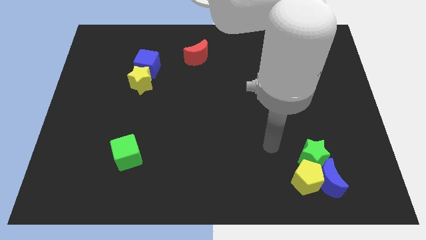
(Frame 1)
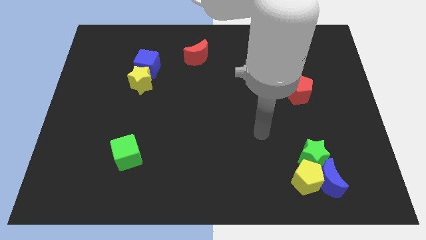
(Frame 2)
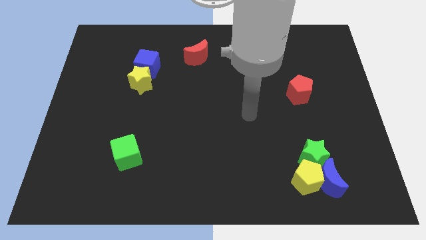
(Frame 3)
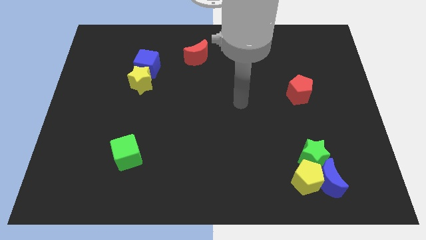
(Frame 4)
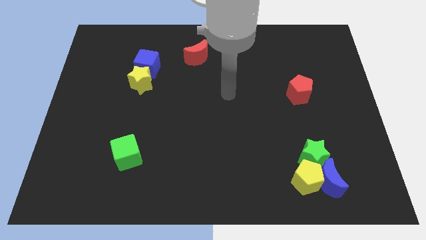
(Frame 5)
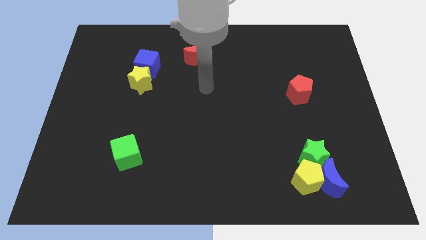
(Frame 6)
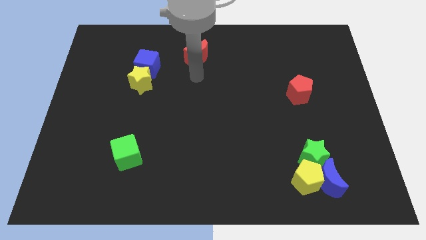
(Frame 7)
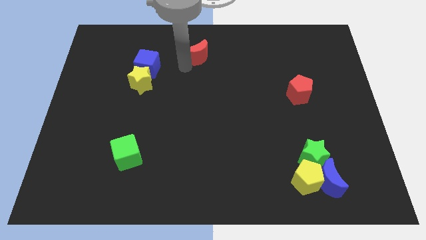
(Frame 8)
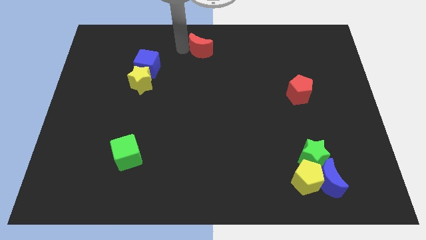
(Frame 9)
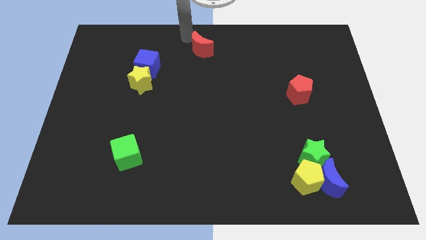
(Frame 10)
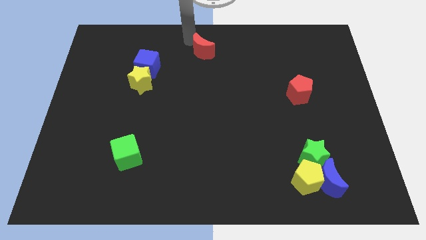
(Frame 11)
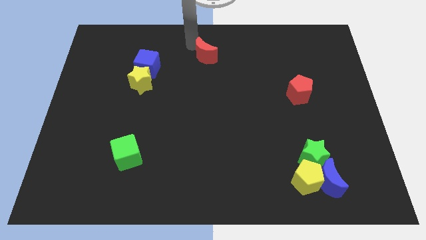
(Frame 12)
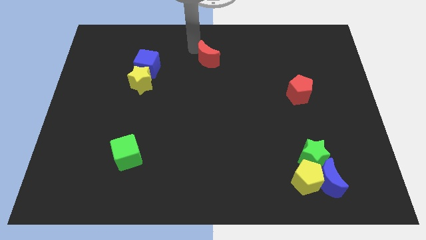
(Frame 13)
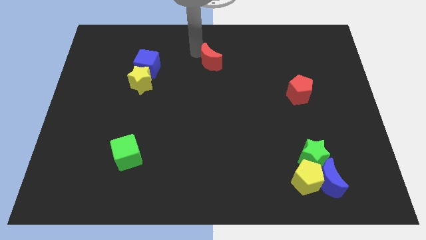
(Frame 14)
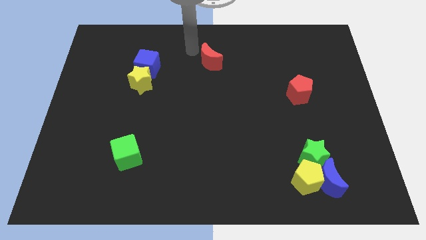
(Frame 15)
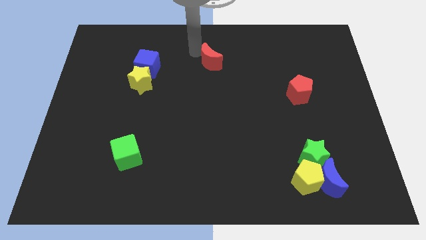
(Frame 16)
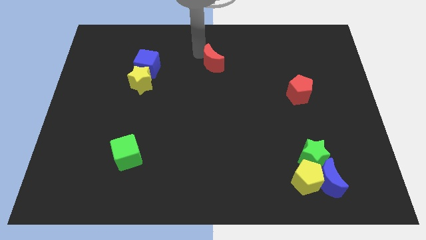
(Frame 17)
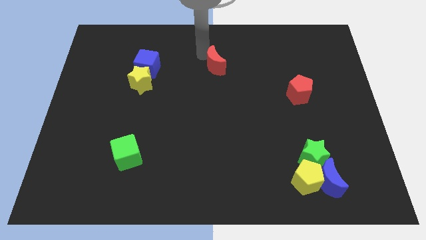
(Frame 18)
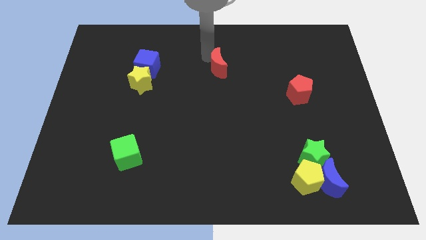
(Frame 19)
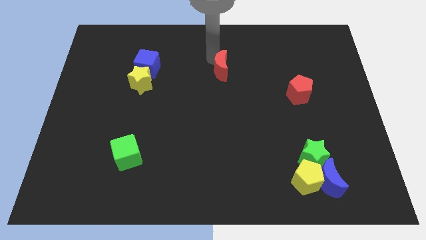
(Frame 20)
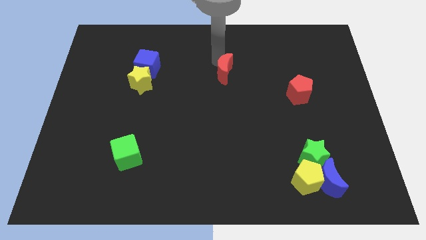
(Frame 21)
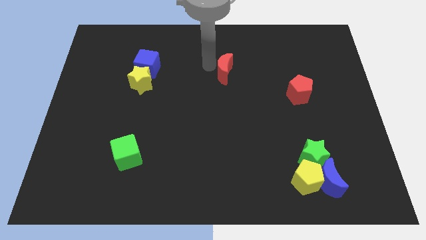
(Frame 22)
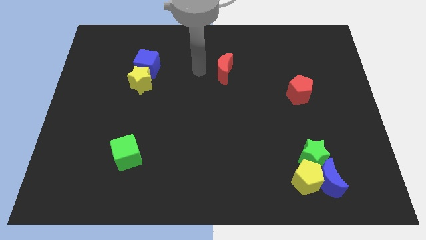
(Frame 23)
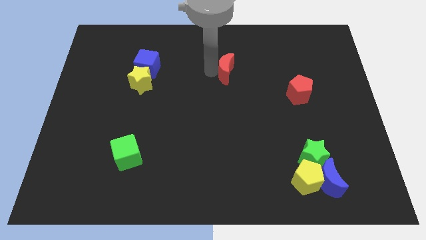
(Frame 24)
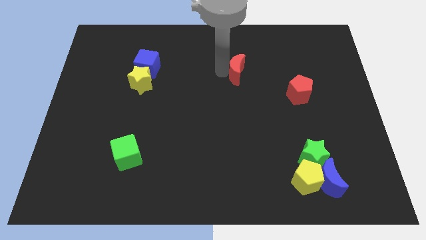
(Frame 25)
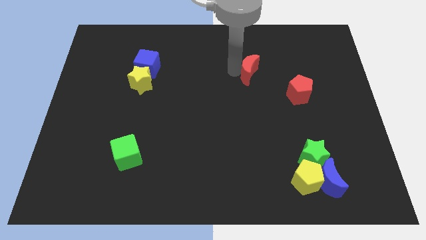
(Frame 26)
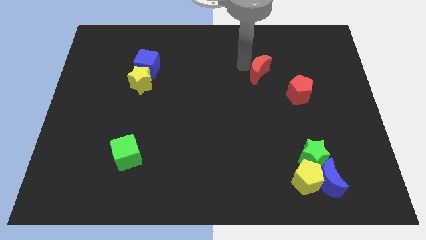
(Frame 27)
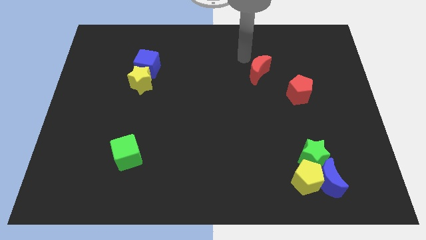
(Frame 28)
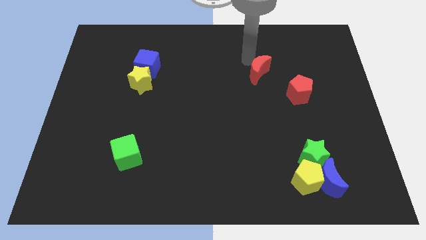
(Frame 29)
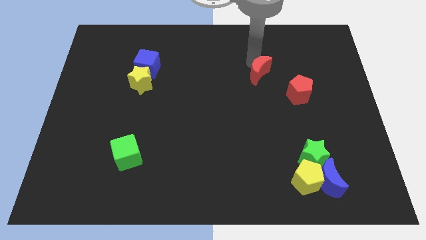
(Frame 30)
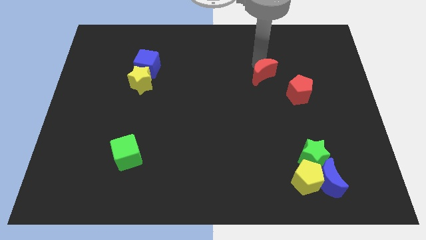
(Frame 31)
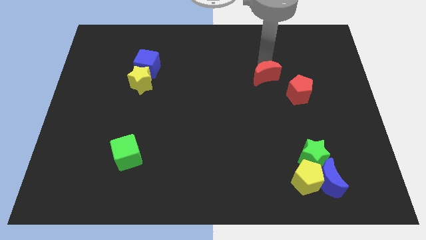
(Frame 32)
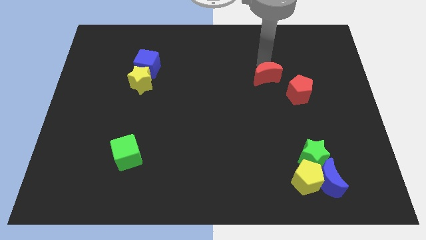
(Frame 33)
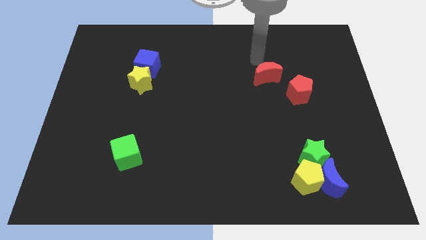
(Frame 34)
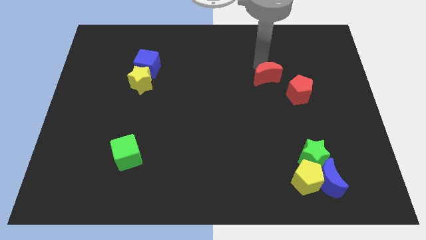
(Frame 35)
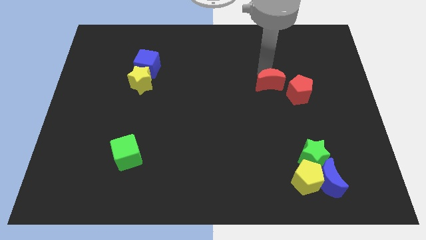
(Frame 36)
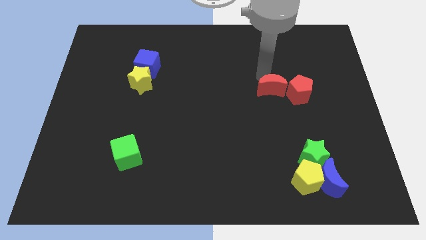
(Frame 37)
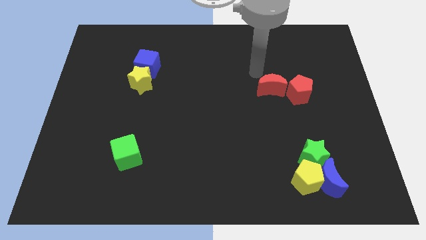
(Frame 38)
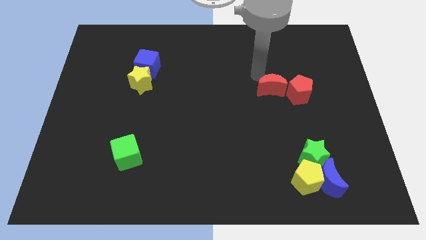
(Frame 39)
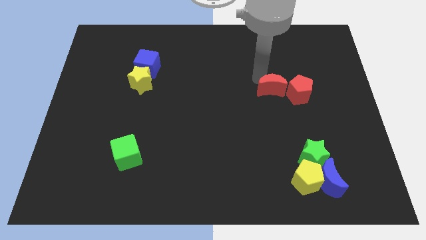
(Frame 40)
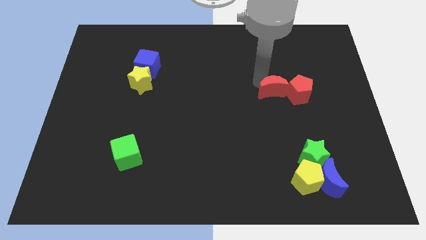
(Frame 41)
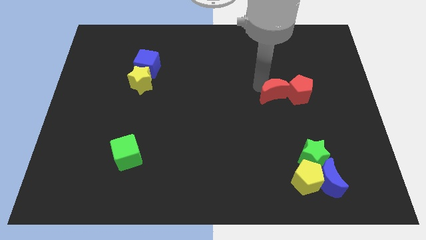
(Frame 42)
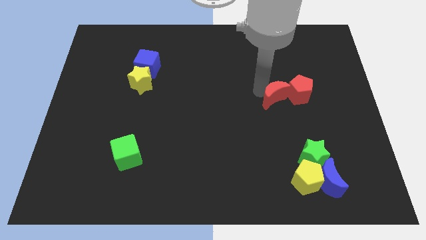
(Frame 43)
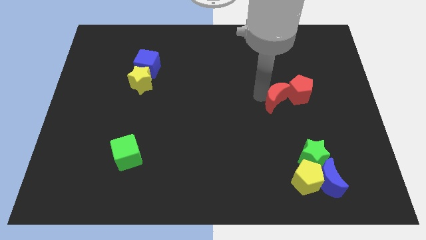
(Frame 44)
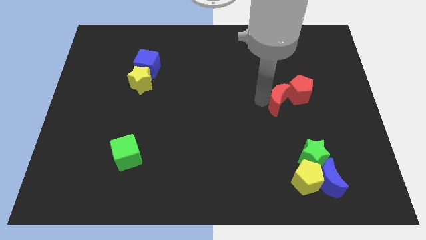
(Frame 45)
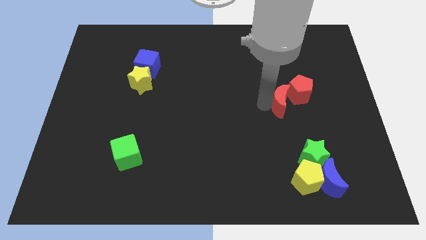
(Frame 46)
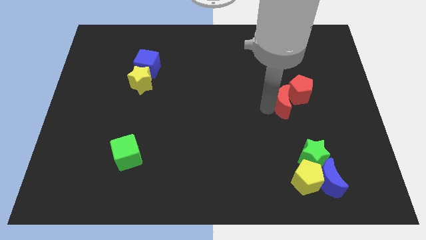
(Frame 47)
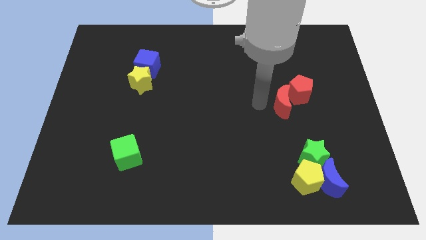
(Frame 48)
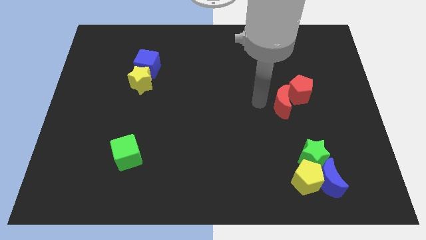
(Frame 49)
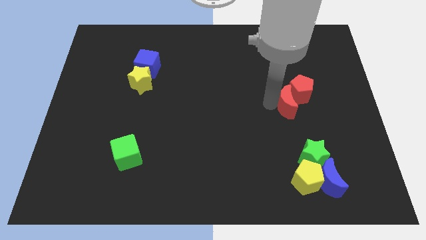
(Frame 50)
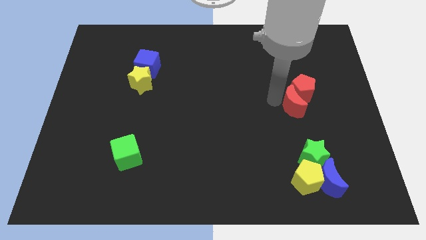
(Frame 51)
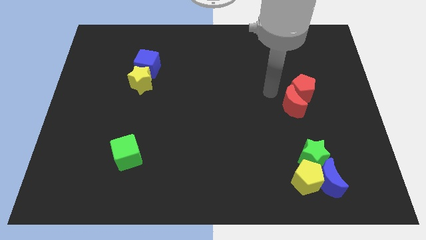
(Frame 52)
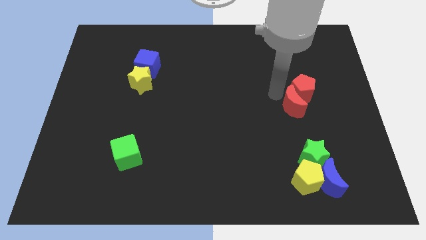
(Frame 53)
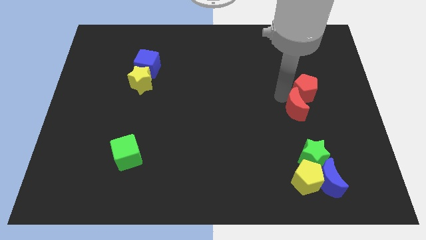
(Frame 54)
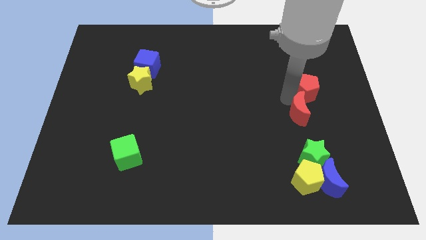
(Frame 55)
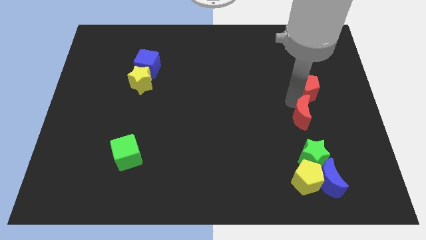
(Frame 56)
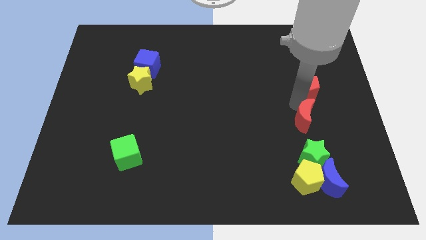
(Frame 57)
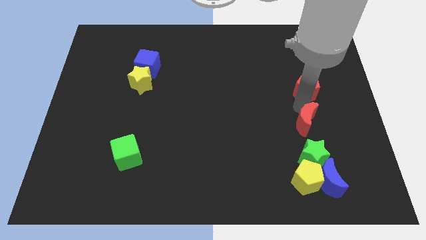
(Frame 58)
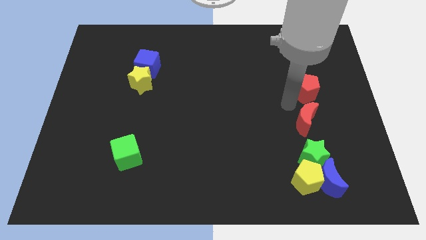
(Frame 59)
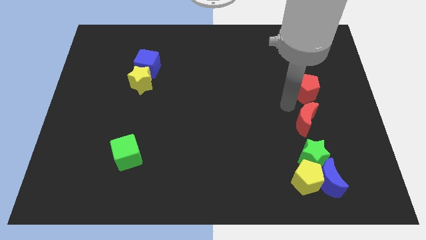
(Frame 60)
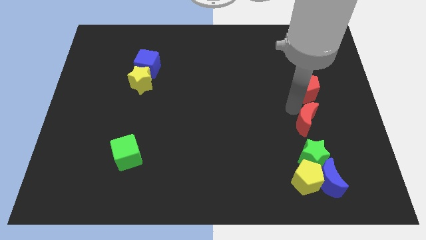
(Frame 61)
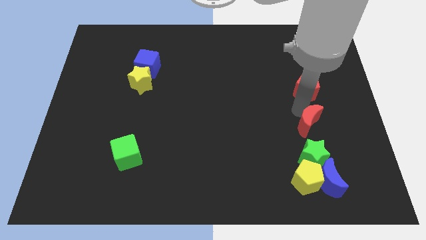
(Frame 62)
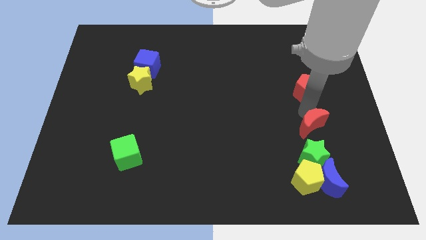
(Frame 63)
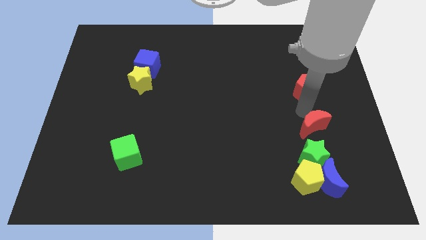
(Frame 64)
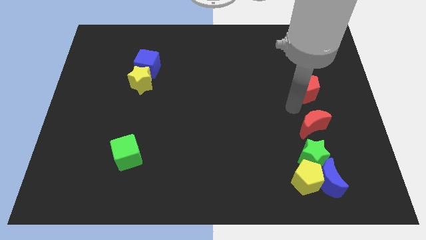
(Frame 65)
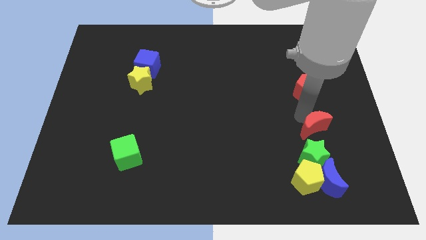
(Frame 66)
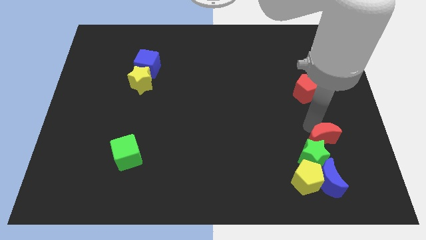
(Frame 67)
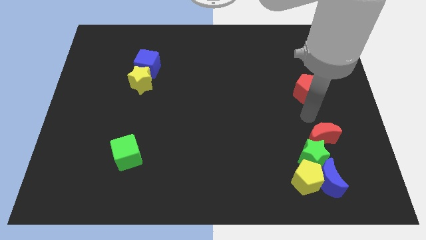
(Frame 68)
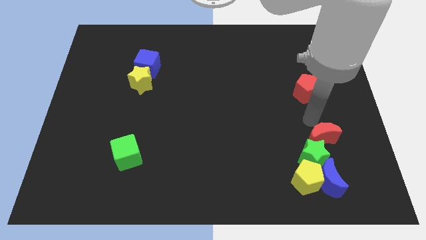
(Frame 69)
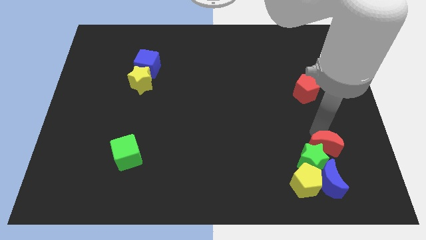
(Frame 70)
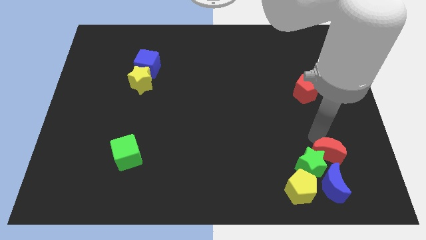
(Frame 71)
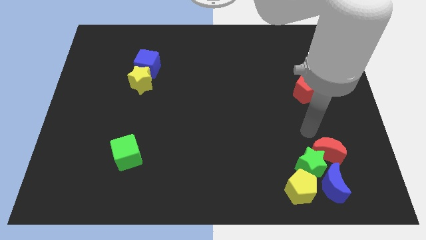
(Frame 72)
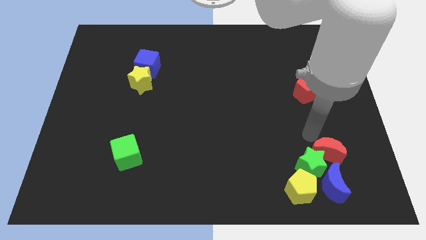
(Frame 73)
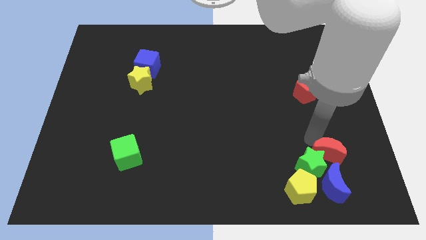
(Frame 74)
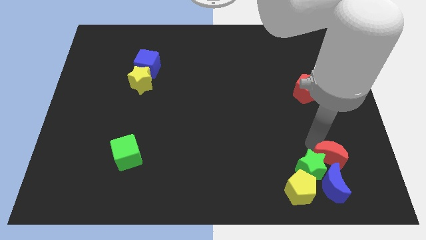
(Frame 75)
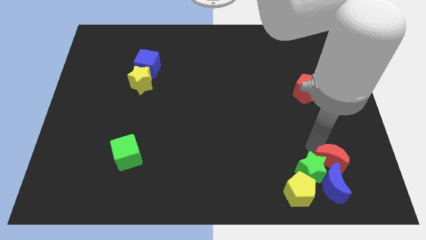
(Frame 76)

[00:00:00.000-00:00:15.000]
put the red moon to the blue moon
